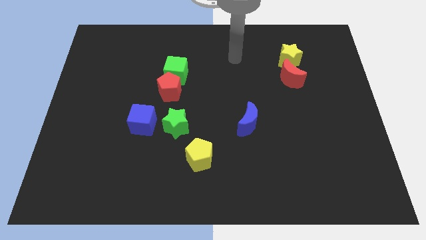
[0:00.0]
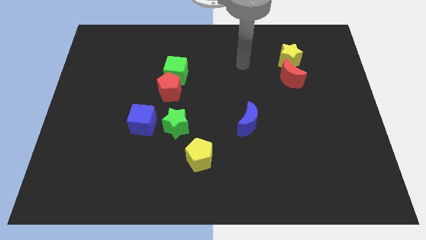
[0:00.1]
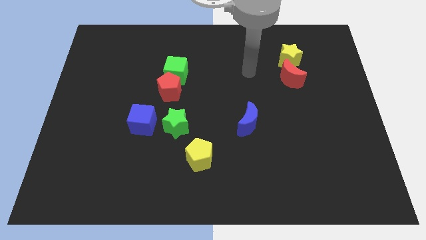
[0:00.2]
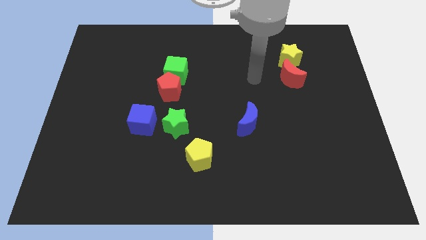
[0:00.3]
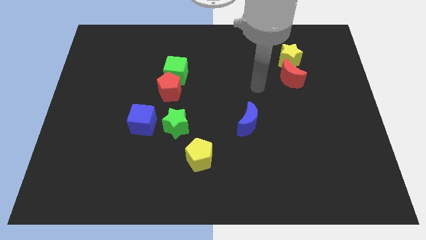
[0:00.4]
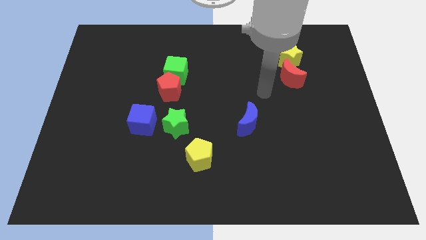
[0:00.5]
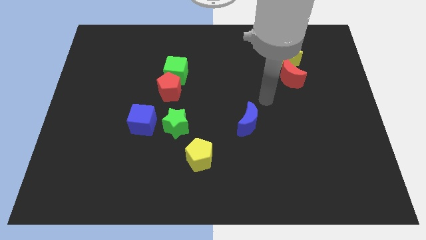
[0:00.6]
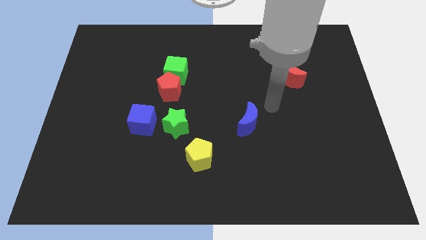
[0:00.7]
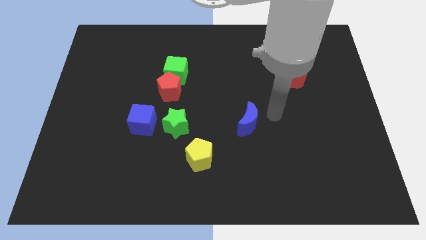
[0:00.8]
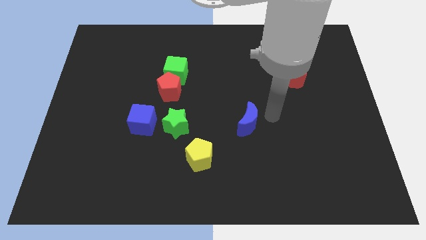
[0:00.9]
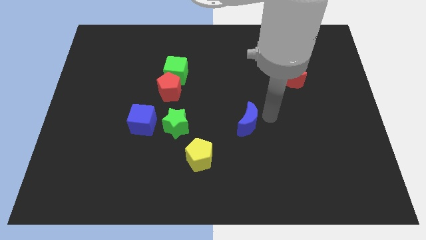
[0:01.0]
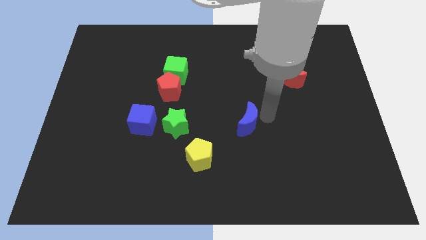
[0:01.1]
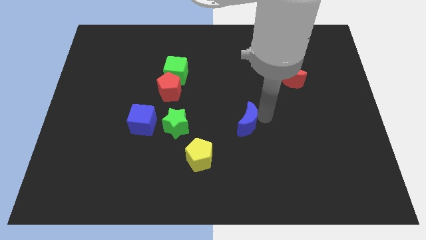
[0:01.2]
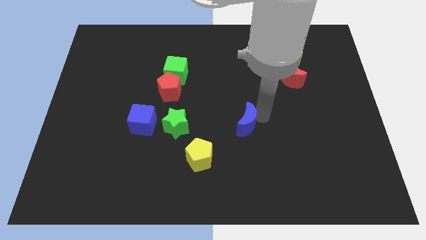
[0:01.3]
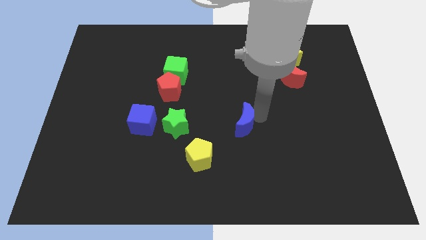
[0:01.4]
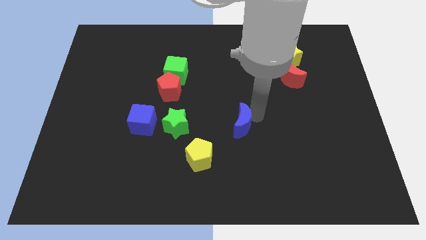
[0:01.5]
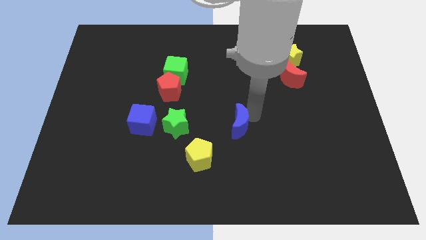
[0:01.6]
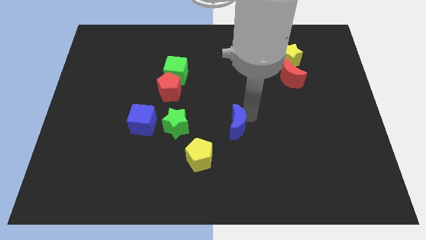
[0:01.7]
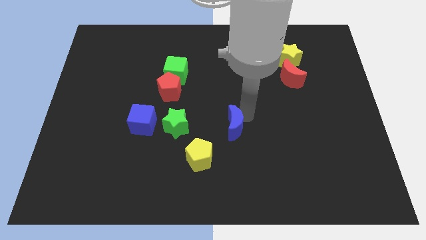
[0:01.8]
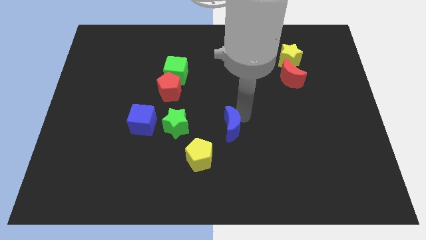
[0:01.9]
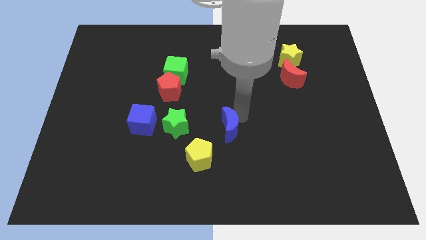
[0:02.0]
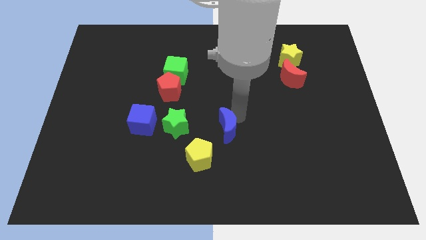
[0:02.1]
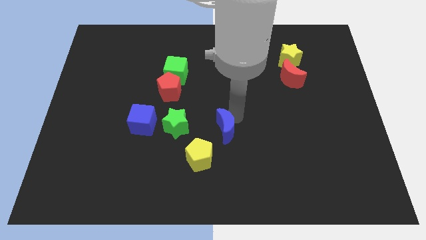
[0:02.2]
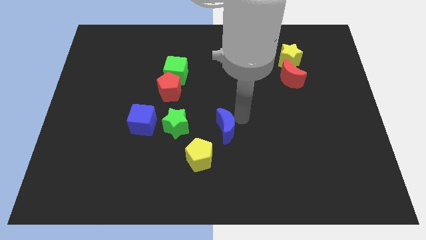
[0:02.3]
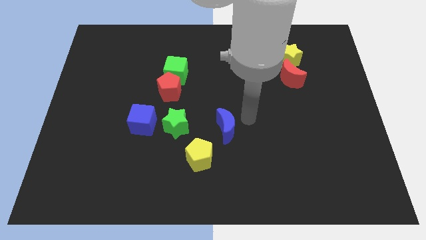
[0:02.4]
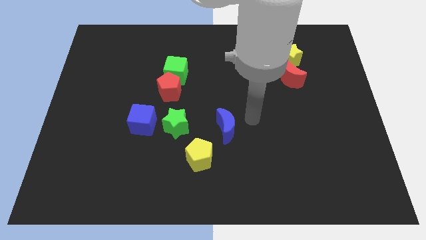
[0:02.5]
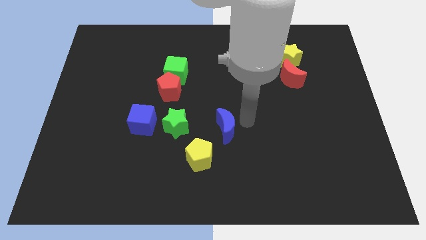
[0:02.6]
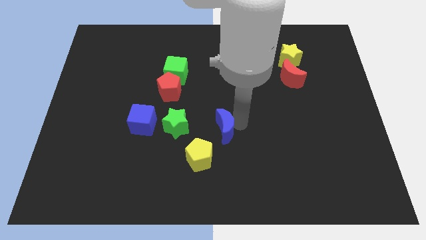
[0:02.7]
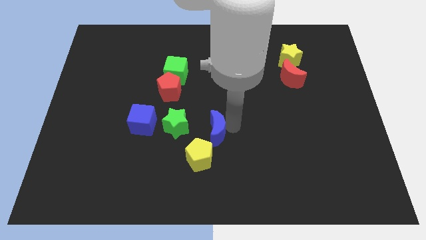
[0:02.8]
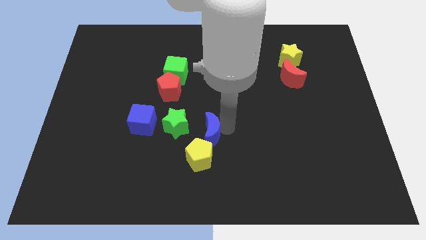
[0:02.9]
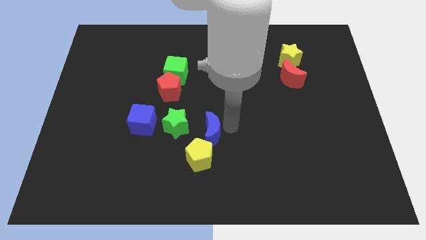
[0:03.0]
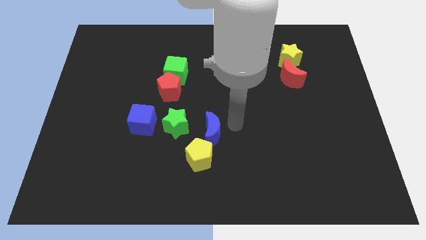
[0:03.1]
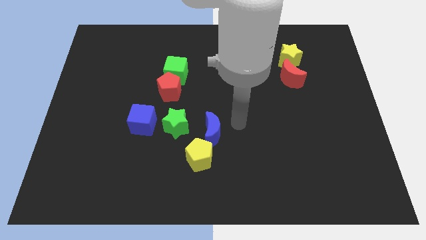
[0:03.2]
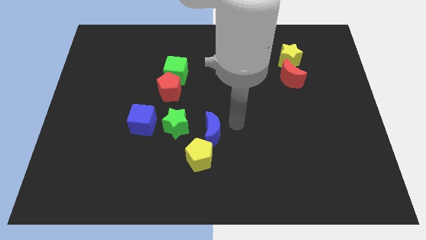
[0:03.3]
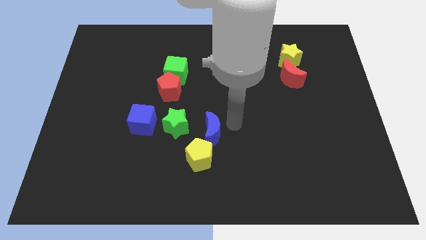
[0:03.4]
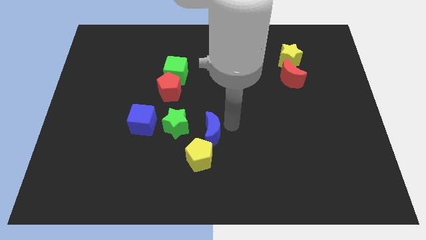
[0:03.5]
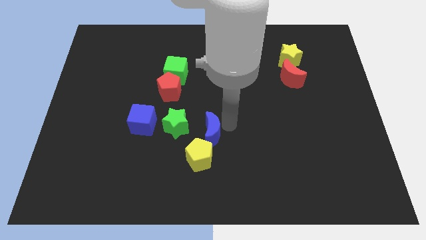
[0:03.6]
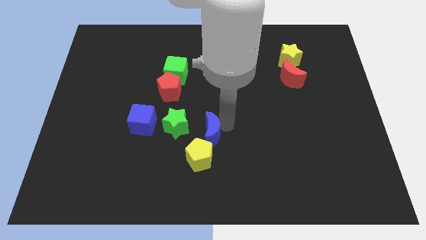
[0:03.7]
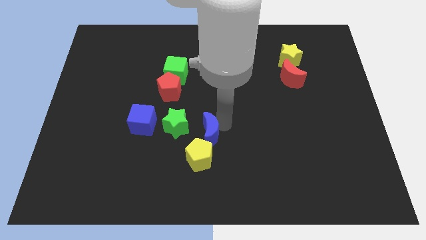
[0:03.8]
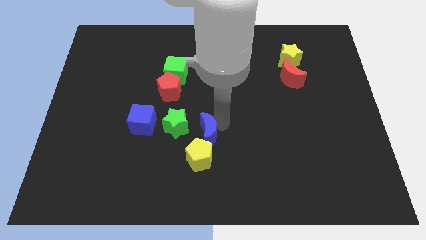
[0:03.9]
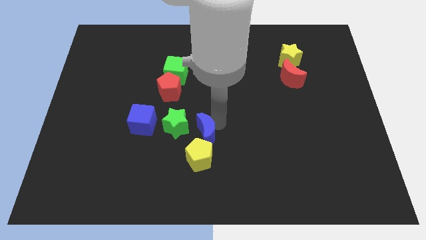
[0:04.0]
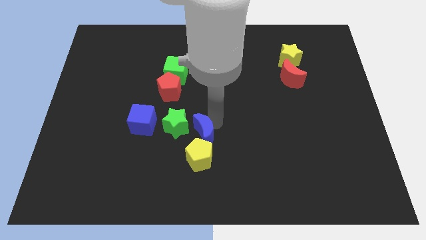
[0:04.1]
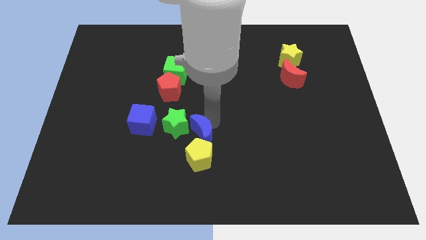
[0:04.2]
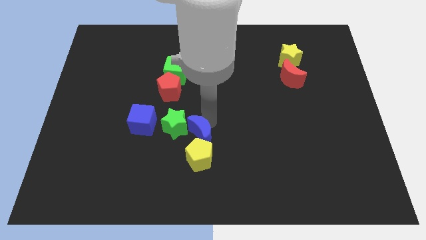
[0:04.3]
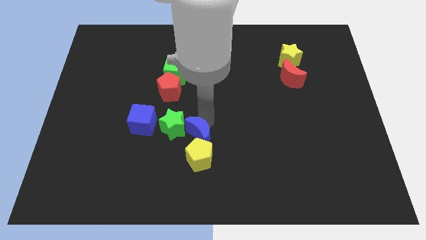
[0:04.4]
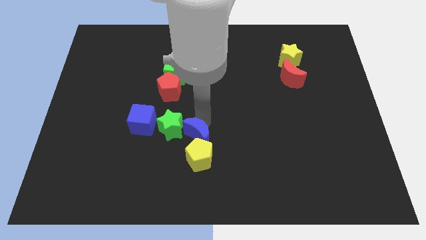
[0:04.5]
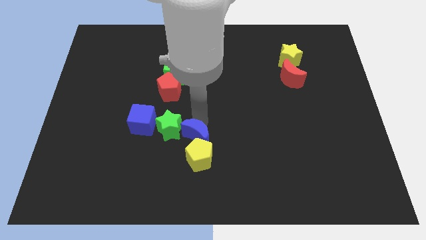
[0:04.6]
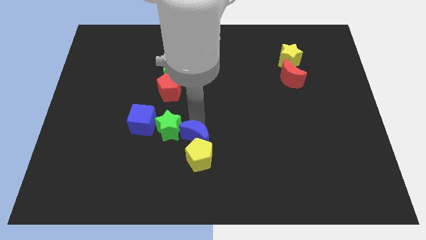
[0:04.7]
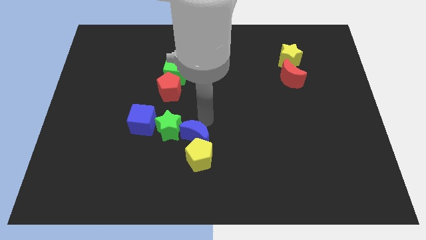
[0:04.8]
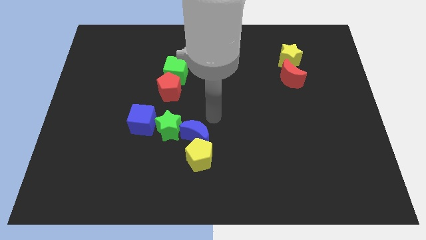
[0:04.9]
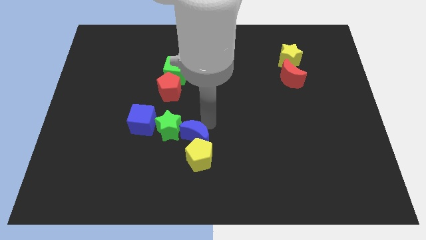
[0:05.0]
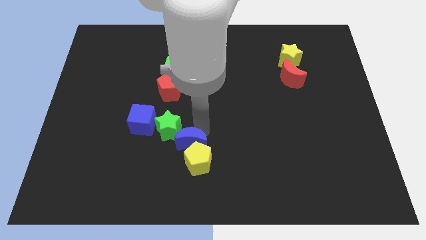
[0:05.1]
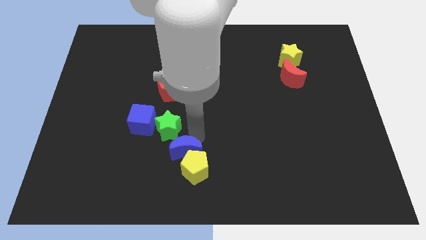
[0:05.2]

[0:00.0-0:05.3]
slide the blue moon to the bottom of the green star

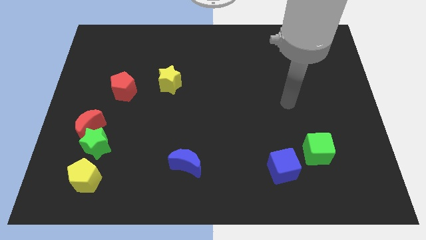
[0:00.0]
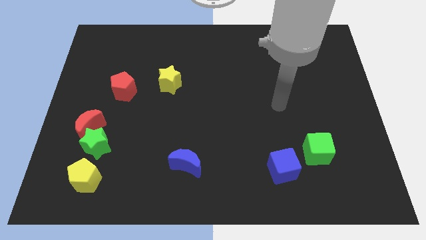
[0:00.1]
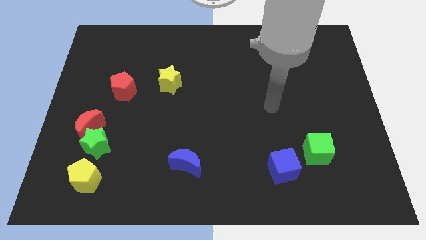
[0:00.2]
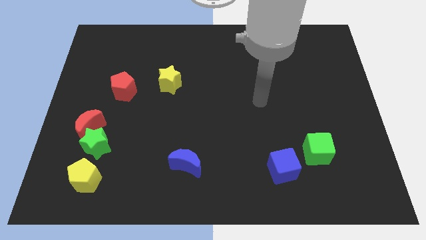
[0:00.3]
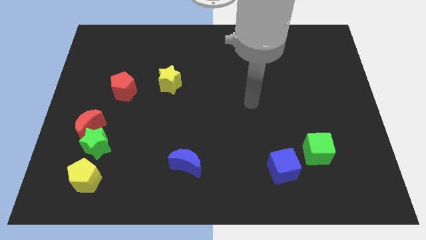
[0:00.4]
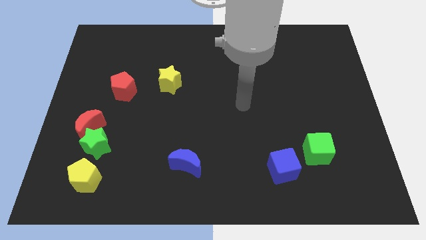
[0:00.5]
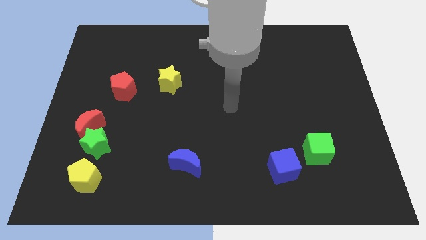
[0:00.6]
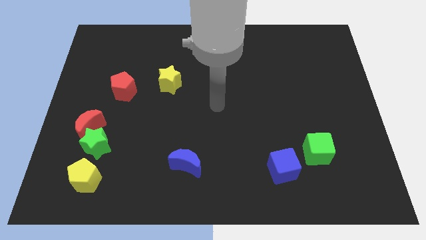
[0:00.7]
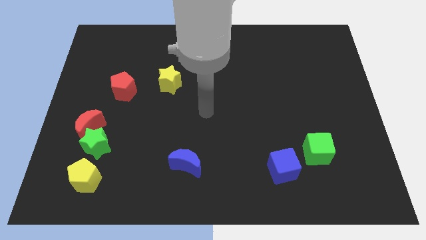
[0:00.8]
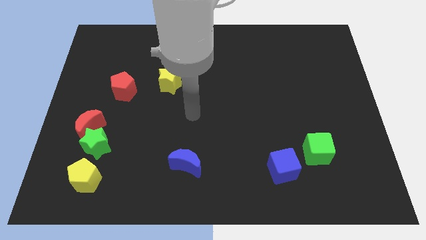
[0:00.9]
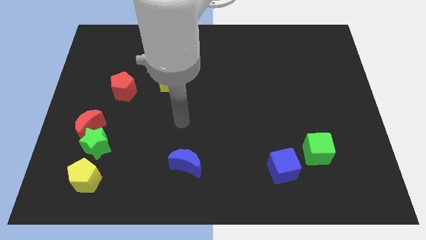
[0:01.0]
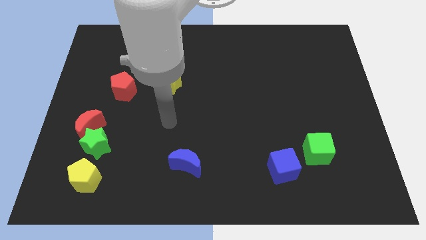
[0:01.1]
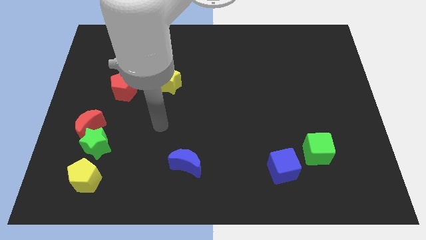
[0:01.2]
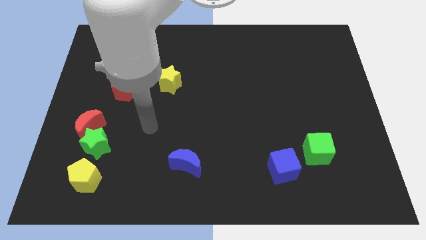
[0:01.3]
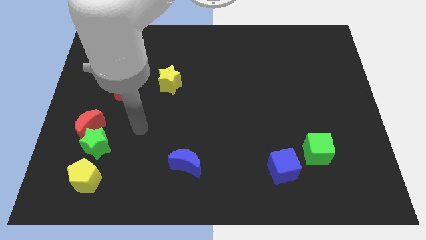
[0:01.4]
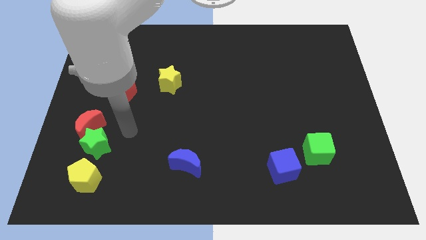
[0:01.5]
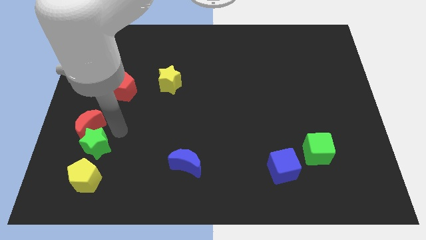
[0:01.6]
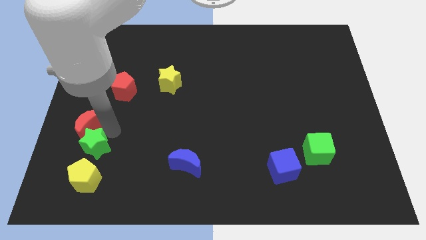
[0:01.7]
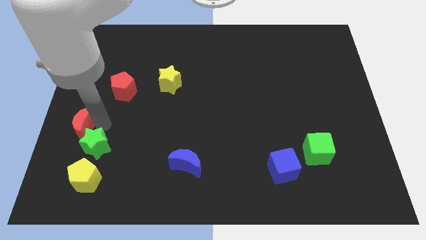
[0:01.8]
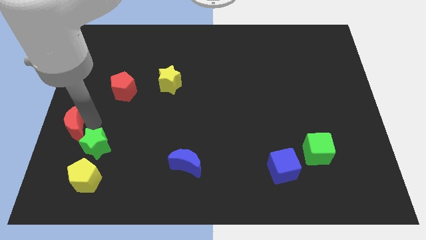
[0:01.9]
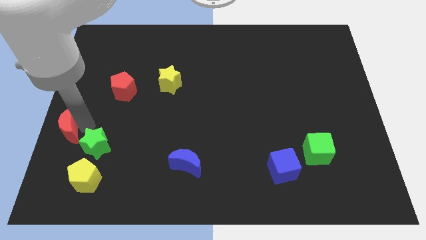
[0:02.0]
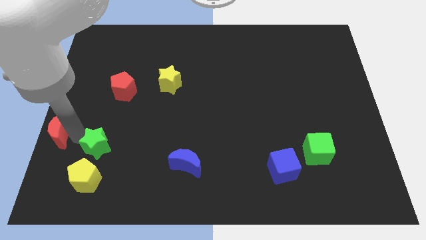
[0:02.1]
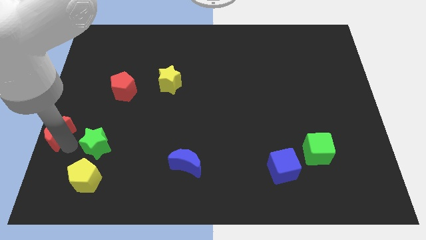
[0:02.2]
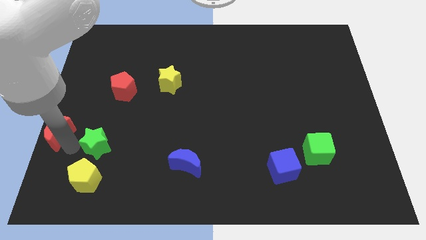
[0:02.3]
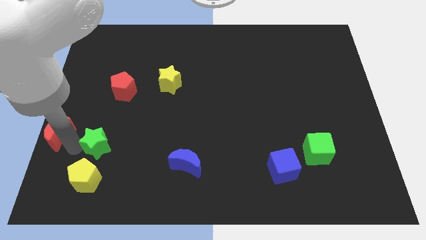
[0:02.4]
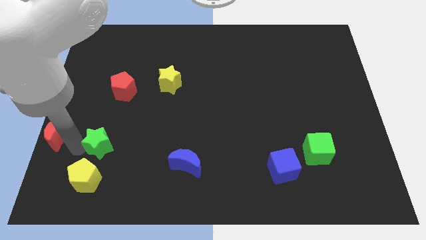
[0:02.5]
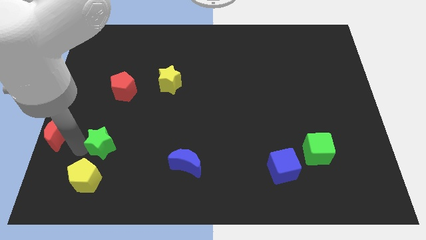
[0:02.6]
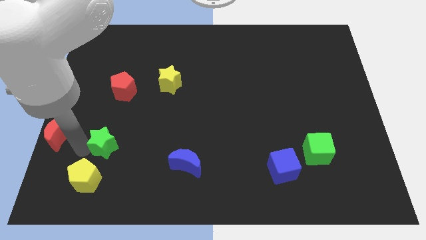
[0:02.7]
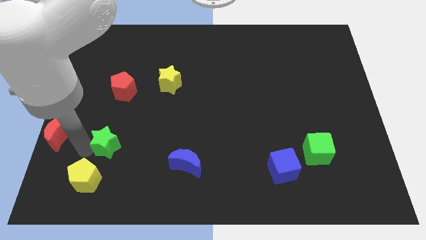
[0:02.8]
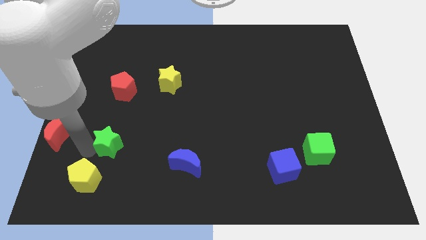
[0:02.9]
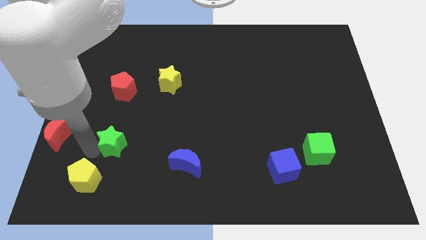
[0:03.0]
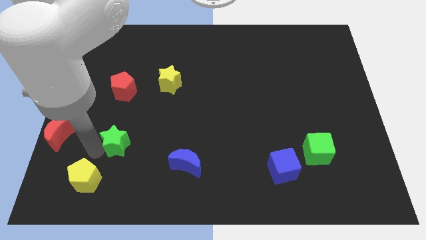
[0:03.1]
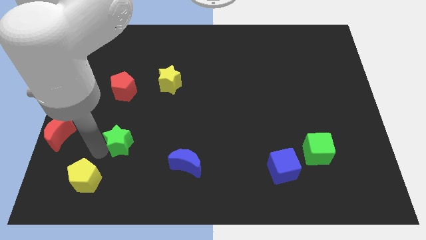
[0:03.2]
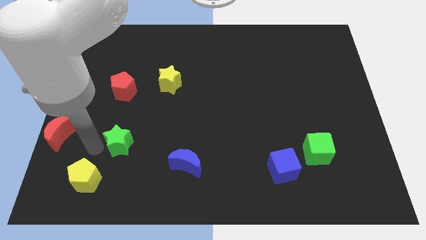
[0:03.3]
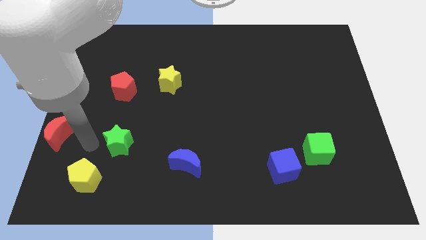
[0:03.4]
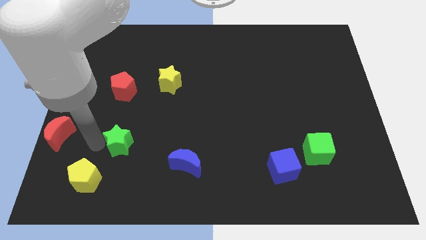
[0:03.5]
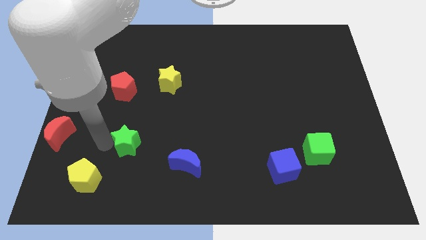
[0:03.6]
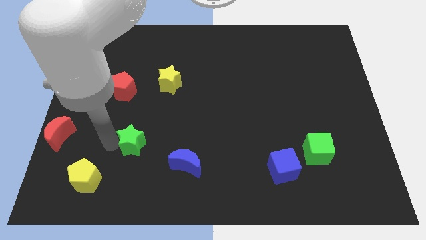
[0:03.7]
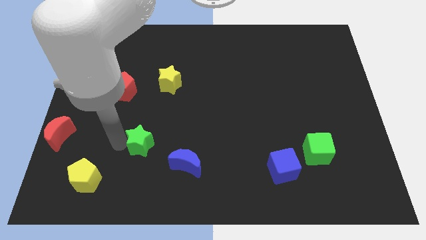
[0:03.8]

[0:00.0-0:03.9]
put the green star to the top left side of the blue moon
